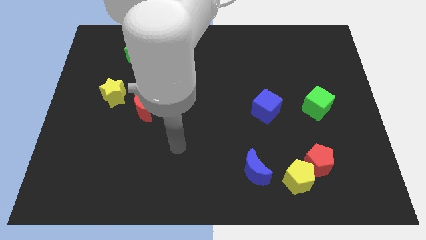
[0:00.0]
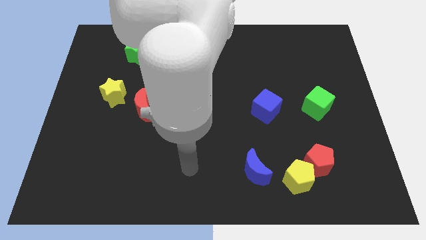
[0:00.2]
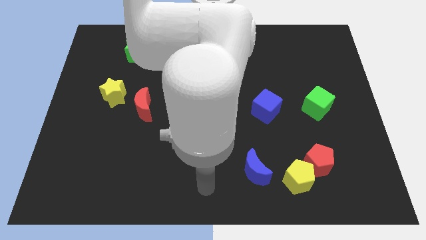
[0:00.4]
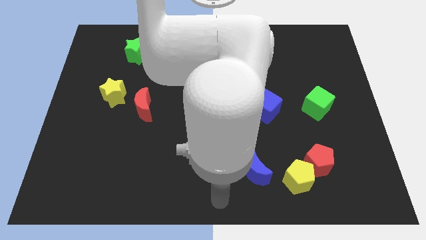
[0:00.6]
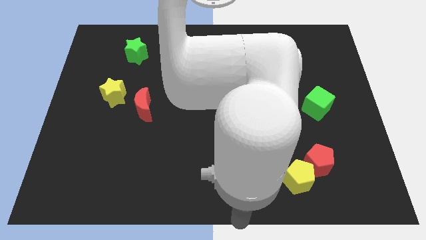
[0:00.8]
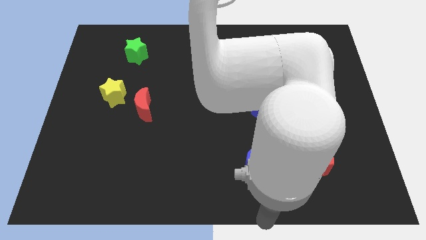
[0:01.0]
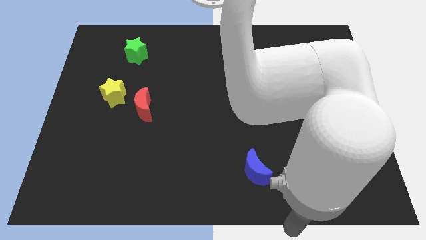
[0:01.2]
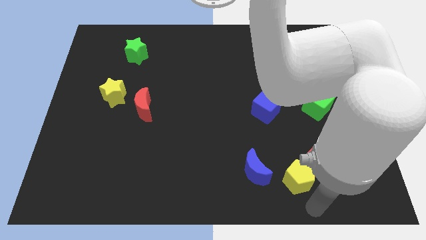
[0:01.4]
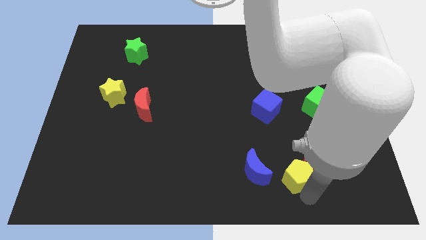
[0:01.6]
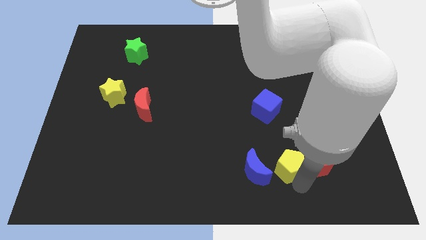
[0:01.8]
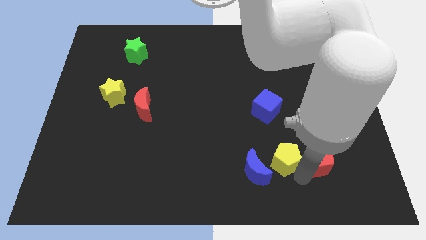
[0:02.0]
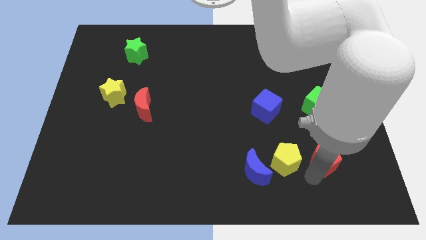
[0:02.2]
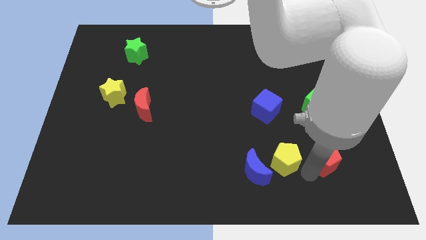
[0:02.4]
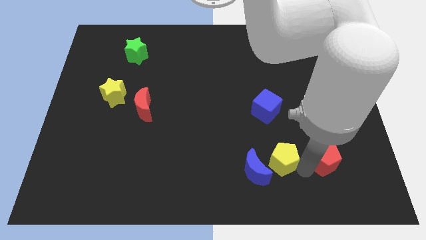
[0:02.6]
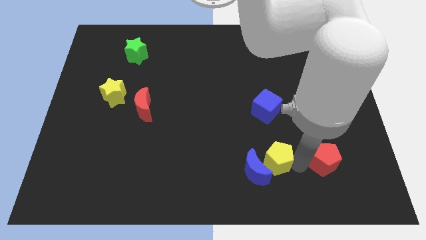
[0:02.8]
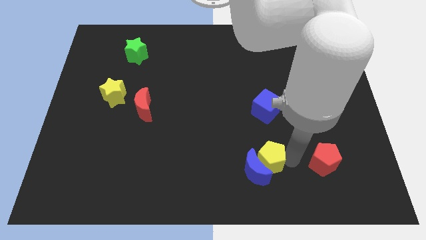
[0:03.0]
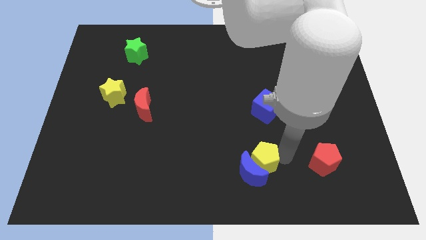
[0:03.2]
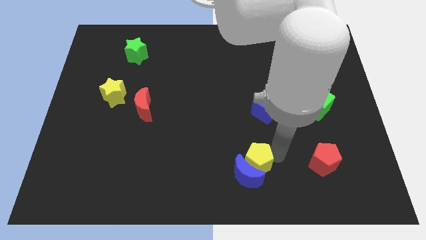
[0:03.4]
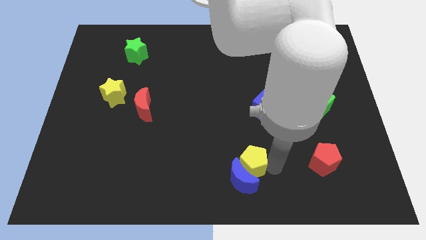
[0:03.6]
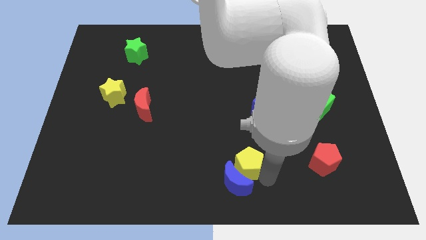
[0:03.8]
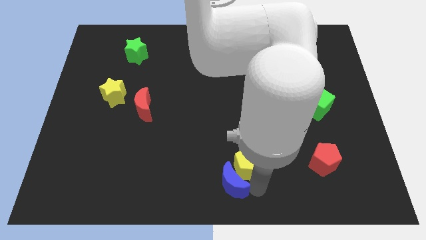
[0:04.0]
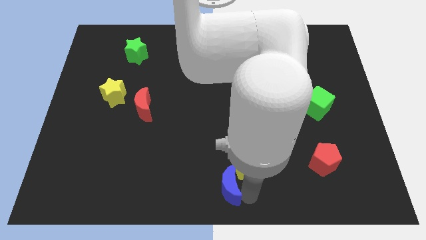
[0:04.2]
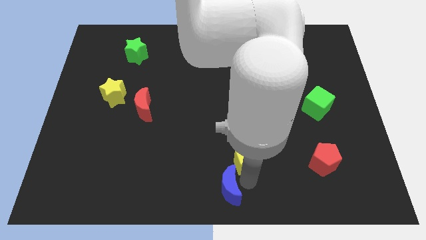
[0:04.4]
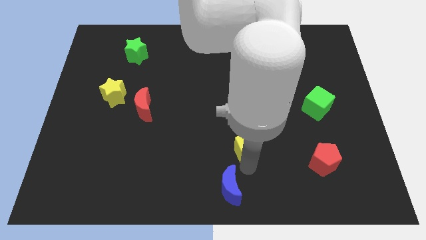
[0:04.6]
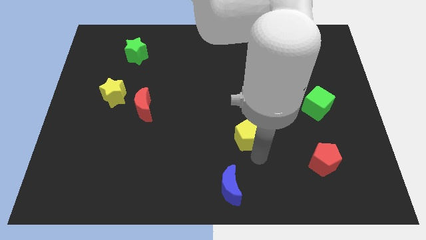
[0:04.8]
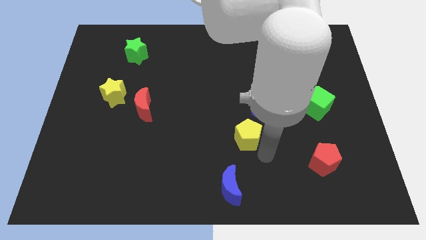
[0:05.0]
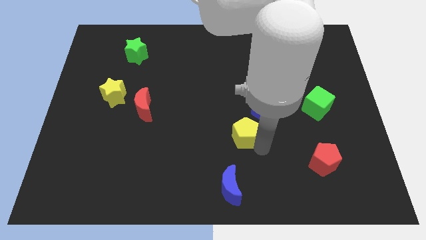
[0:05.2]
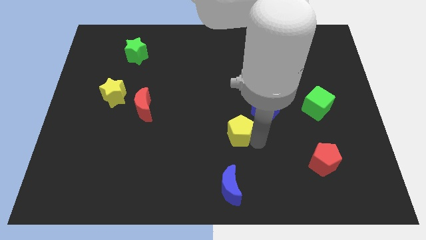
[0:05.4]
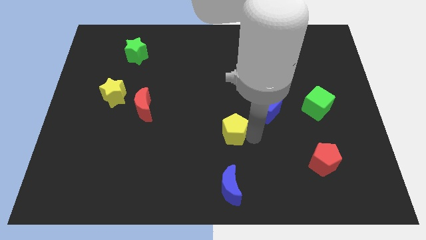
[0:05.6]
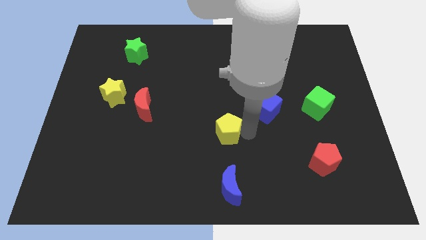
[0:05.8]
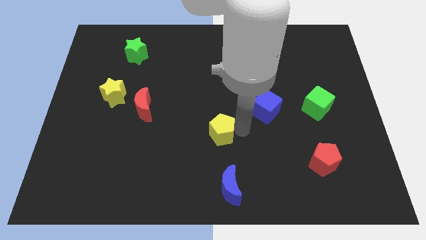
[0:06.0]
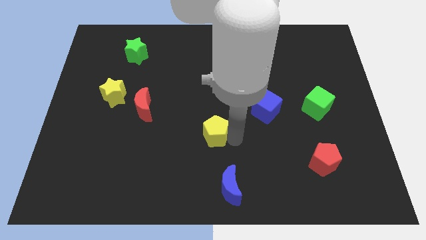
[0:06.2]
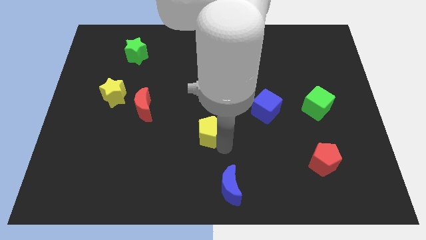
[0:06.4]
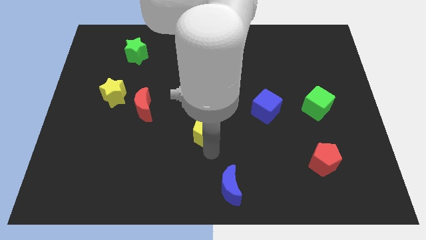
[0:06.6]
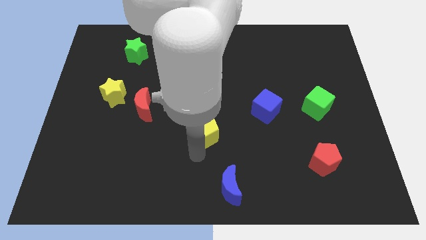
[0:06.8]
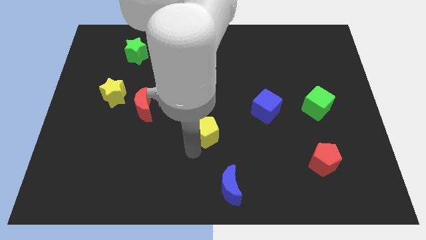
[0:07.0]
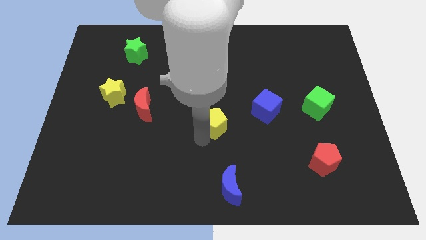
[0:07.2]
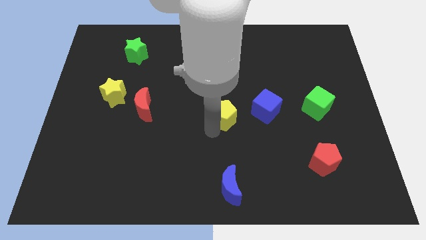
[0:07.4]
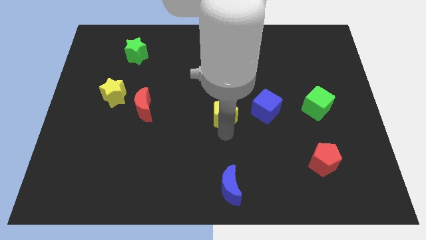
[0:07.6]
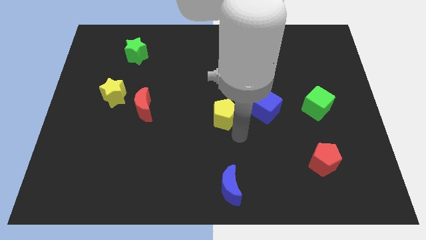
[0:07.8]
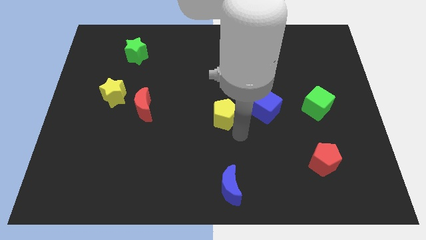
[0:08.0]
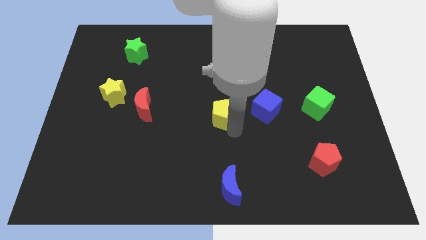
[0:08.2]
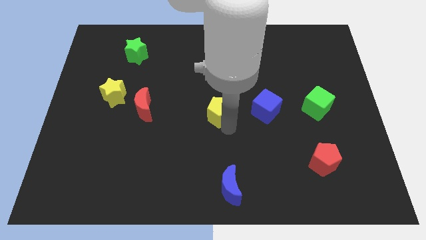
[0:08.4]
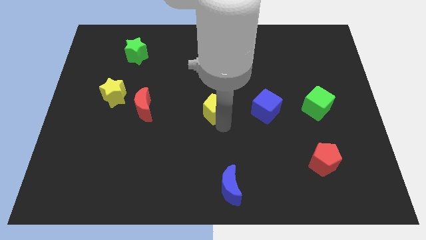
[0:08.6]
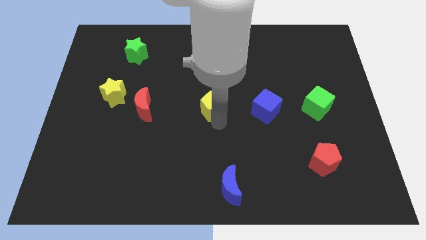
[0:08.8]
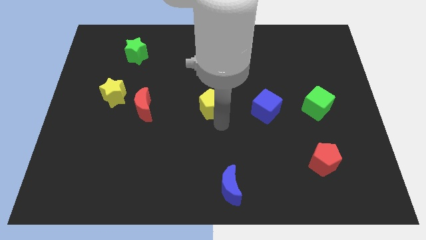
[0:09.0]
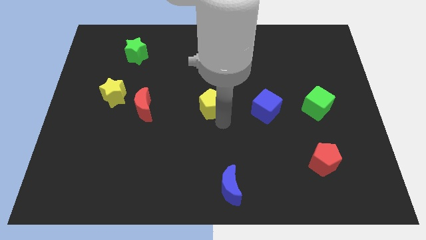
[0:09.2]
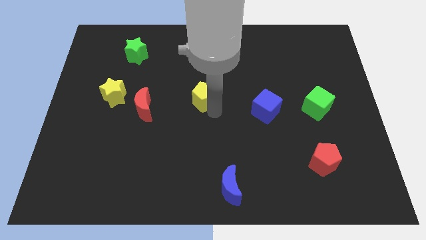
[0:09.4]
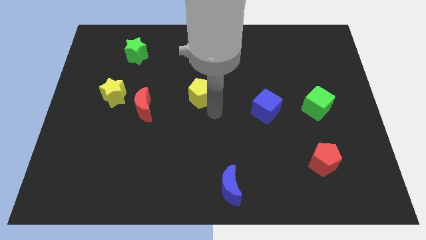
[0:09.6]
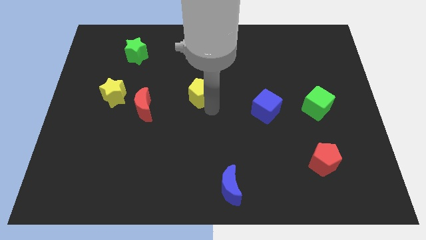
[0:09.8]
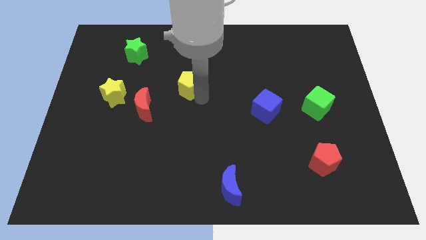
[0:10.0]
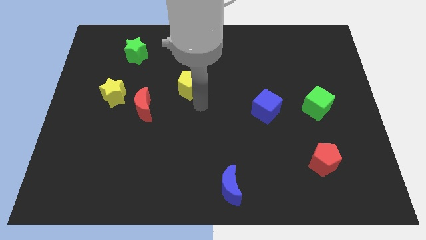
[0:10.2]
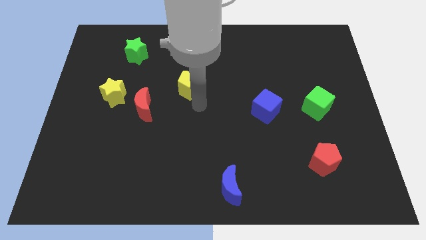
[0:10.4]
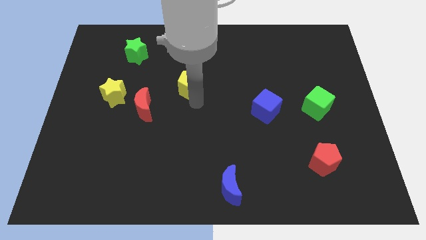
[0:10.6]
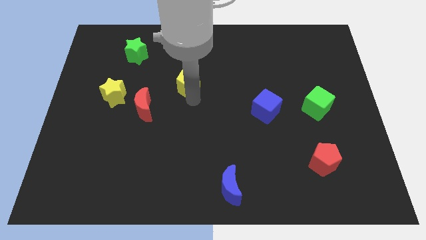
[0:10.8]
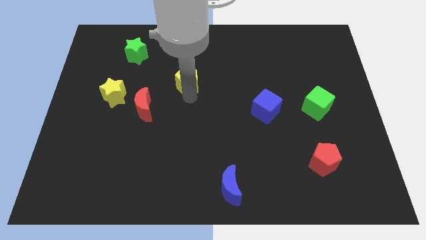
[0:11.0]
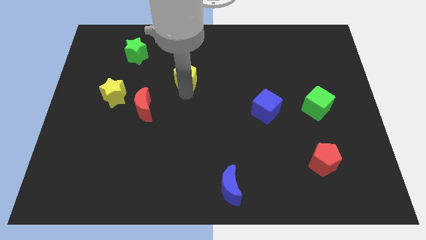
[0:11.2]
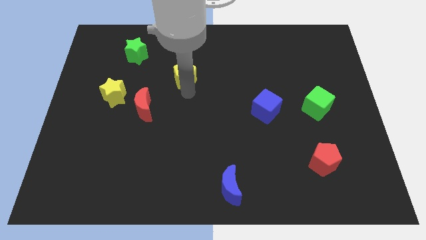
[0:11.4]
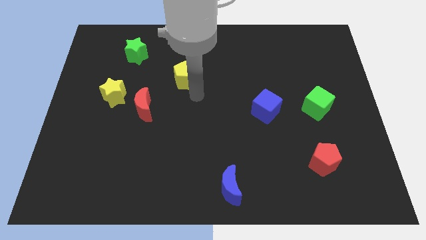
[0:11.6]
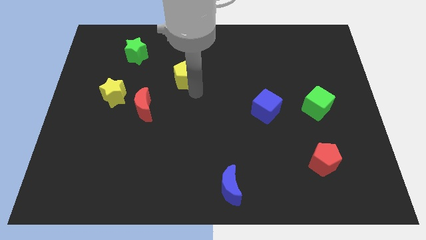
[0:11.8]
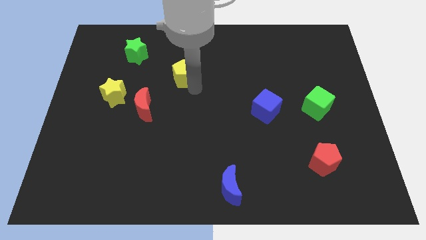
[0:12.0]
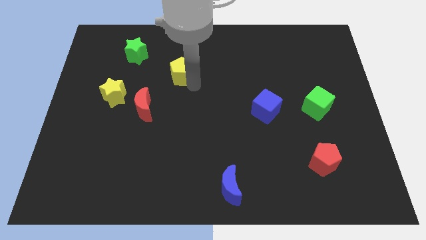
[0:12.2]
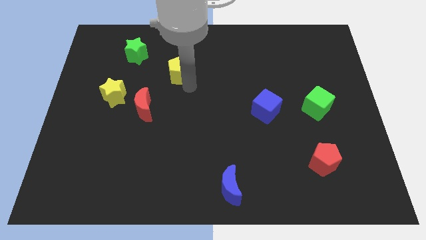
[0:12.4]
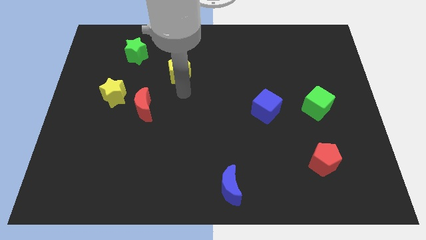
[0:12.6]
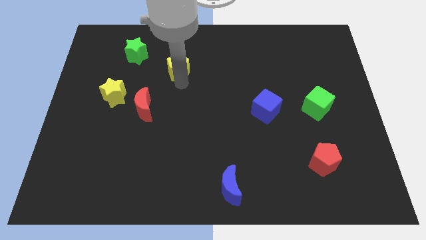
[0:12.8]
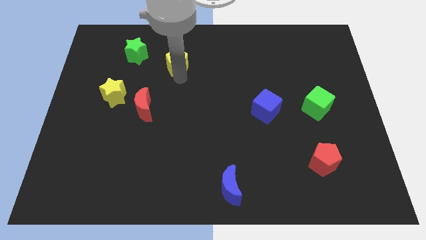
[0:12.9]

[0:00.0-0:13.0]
put the yellow pentagon to the right side of the green star

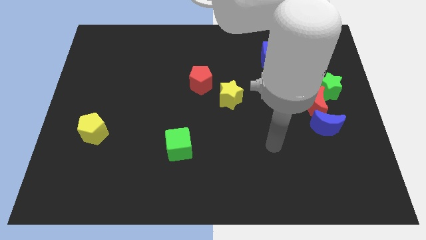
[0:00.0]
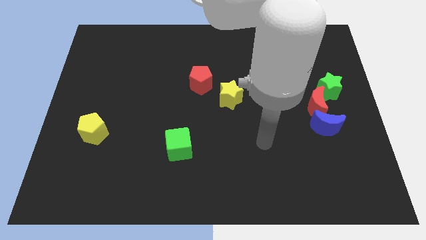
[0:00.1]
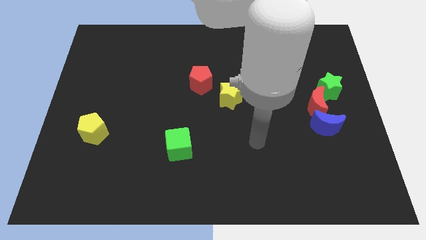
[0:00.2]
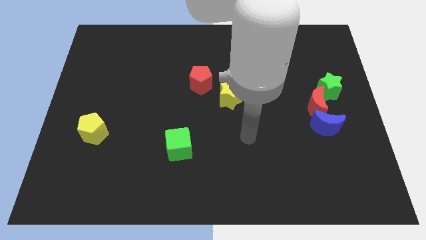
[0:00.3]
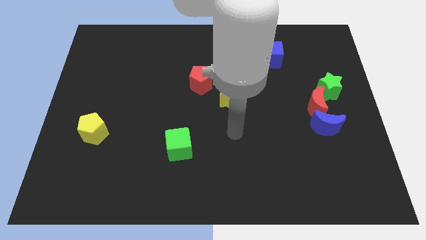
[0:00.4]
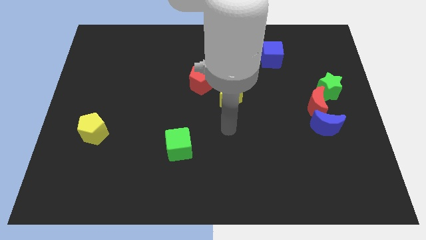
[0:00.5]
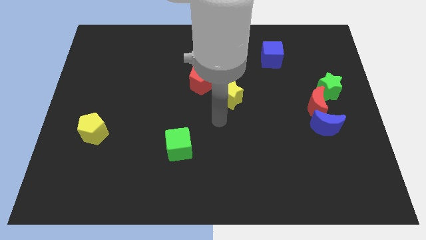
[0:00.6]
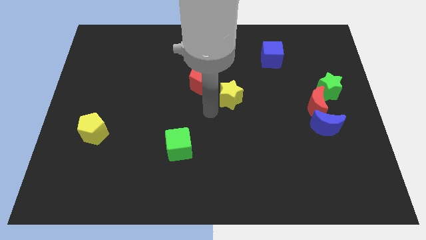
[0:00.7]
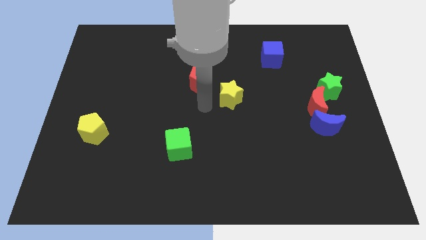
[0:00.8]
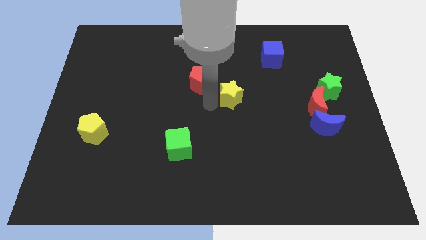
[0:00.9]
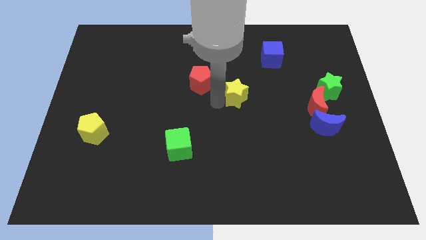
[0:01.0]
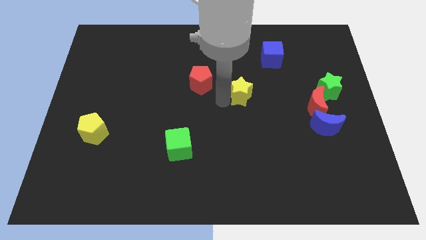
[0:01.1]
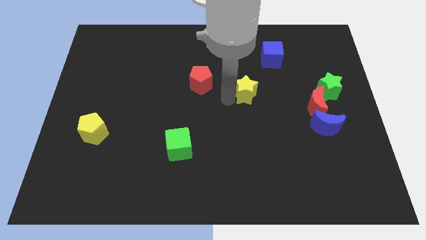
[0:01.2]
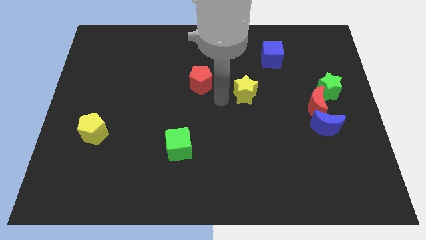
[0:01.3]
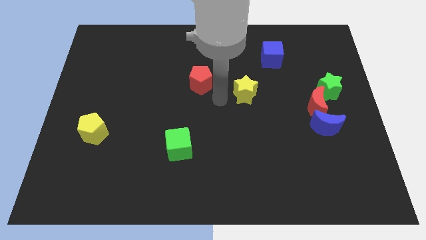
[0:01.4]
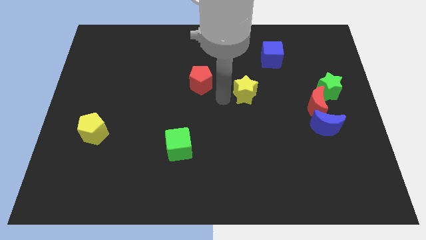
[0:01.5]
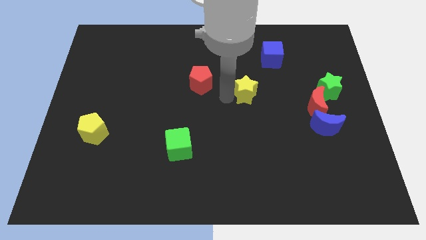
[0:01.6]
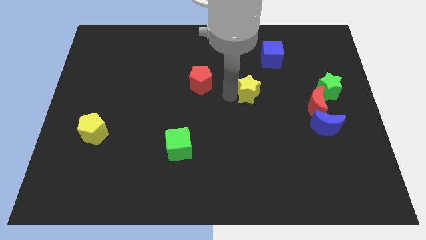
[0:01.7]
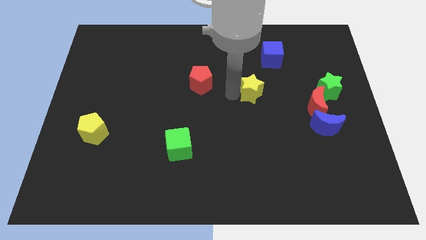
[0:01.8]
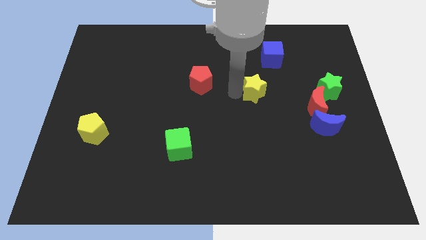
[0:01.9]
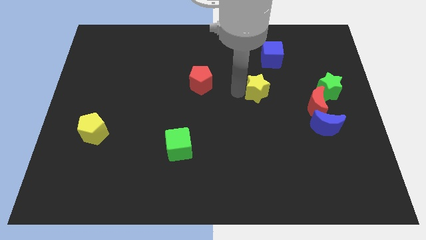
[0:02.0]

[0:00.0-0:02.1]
slide the yellow star below the blue cube
